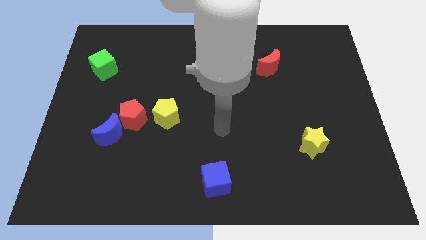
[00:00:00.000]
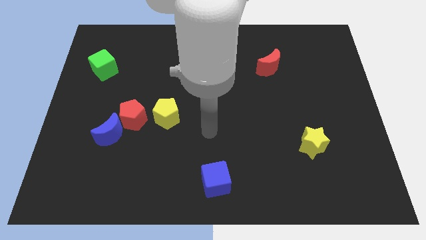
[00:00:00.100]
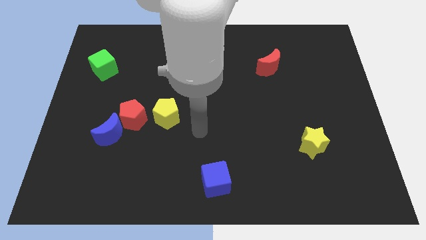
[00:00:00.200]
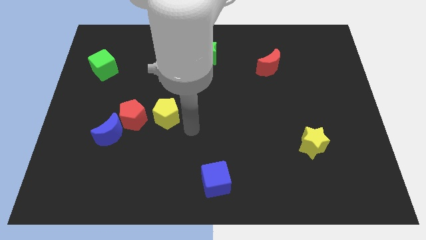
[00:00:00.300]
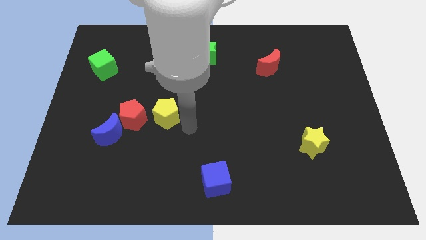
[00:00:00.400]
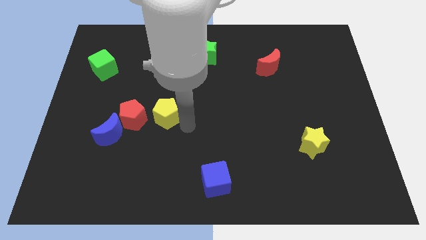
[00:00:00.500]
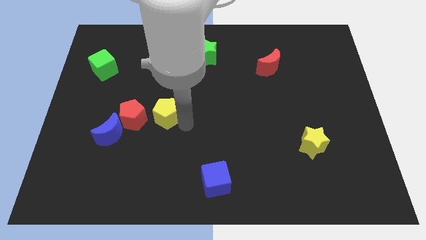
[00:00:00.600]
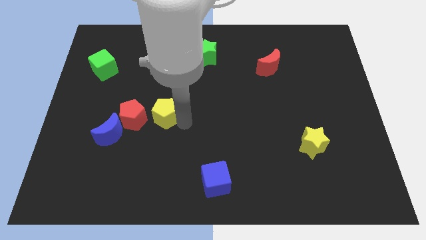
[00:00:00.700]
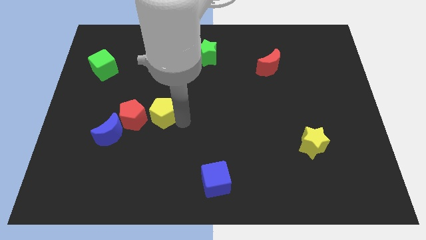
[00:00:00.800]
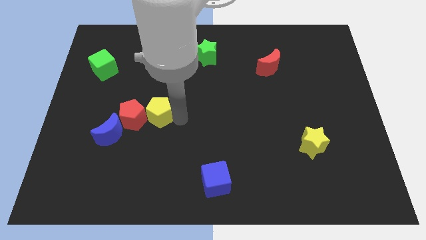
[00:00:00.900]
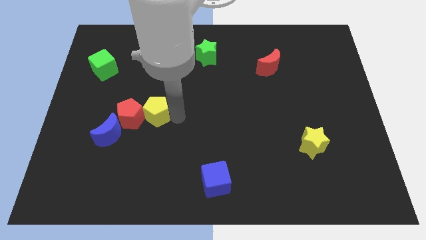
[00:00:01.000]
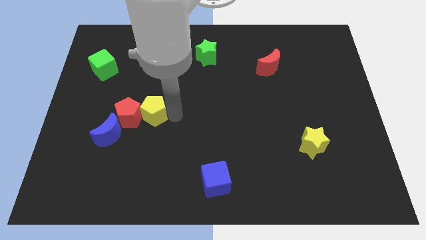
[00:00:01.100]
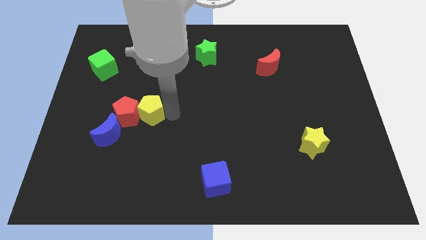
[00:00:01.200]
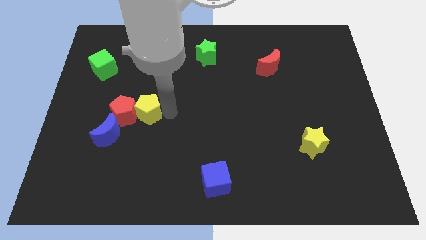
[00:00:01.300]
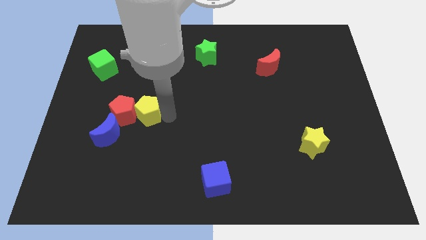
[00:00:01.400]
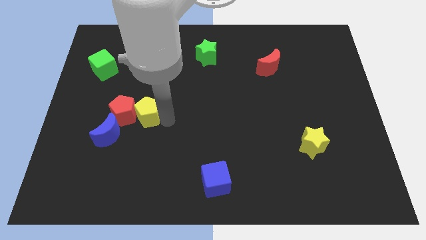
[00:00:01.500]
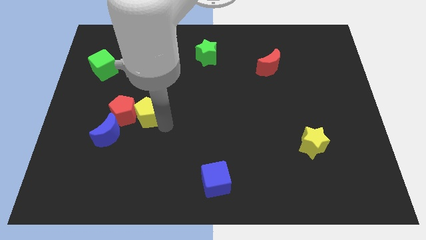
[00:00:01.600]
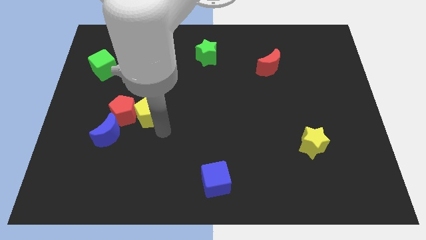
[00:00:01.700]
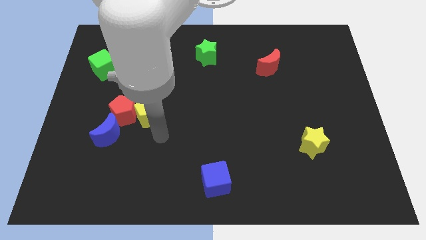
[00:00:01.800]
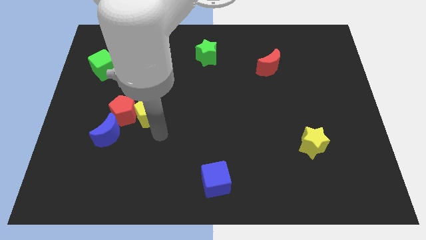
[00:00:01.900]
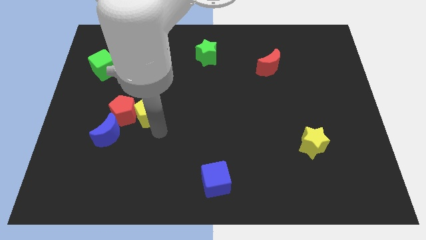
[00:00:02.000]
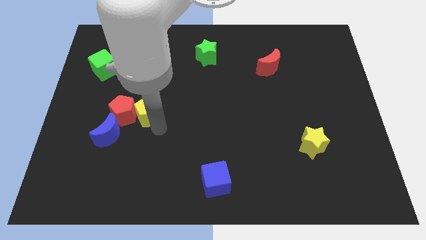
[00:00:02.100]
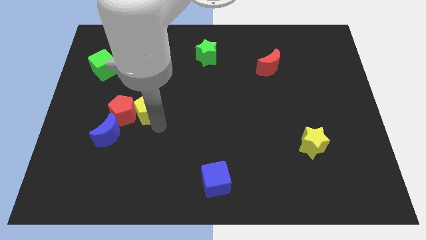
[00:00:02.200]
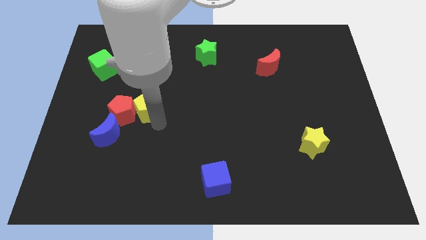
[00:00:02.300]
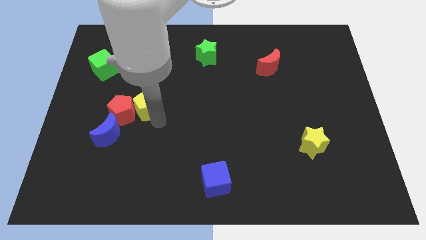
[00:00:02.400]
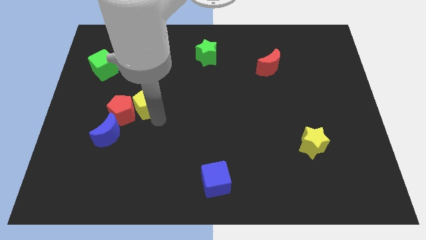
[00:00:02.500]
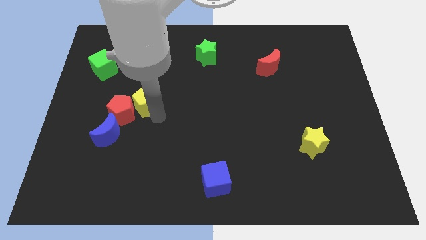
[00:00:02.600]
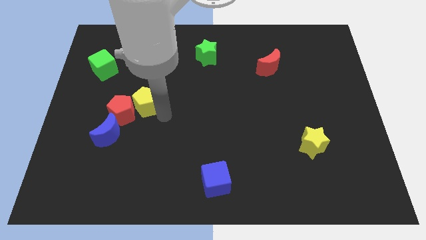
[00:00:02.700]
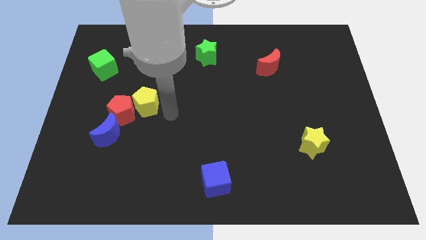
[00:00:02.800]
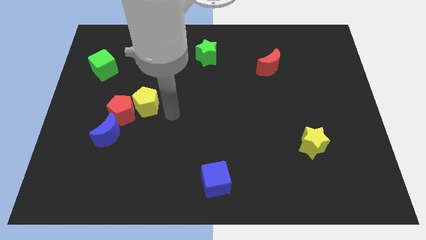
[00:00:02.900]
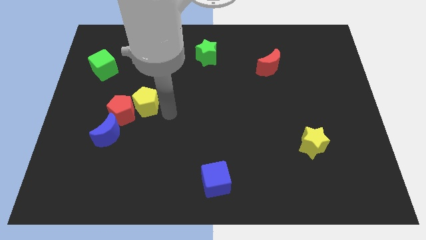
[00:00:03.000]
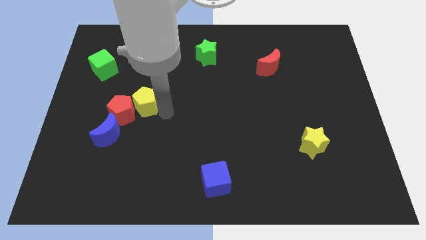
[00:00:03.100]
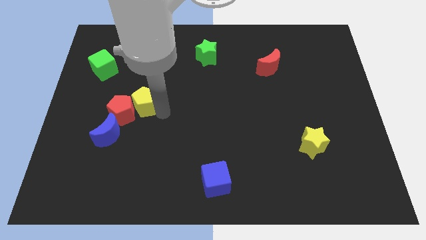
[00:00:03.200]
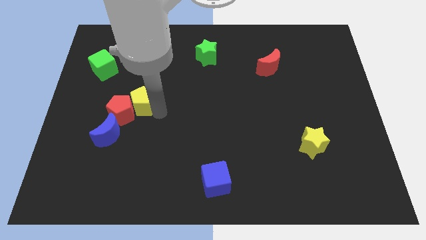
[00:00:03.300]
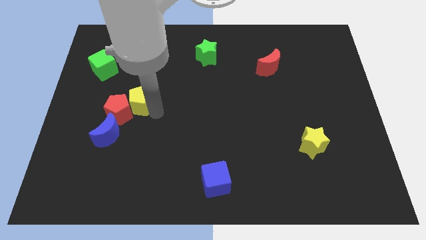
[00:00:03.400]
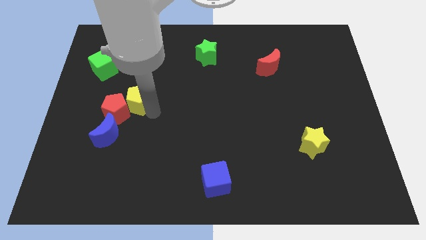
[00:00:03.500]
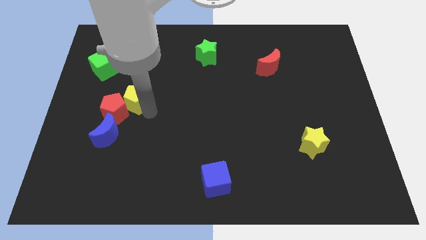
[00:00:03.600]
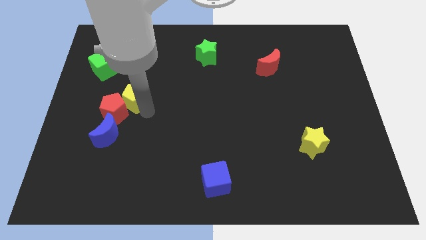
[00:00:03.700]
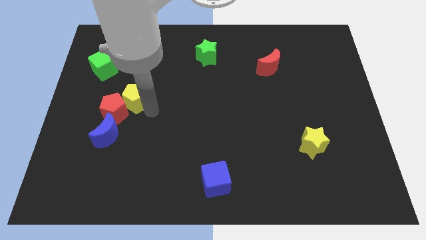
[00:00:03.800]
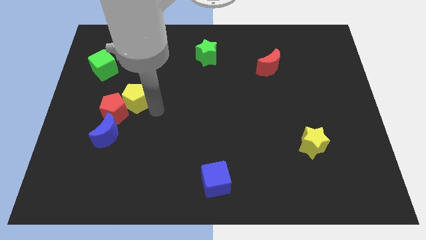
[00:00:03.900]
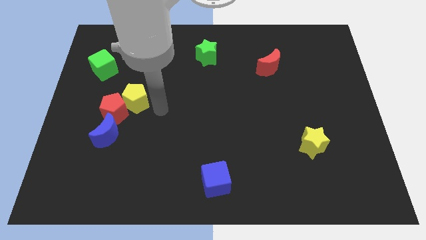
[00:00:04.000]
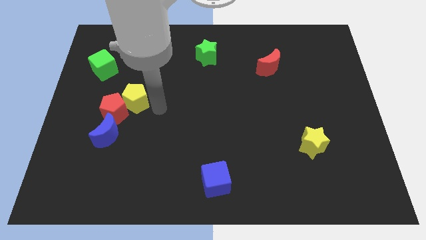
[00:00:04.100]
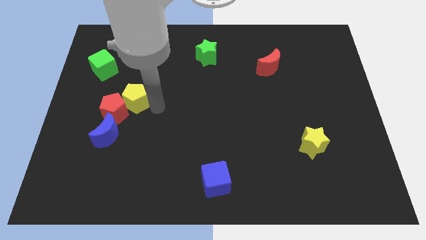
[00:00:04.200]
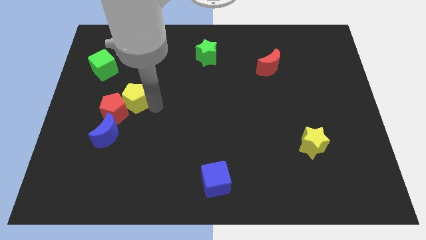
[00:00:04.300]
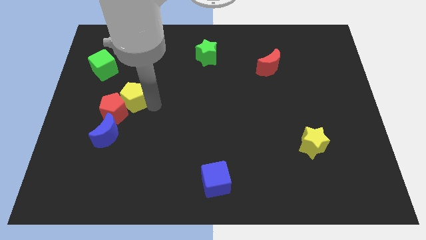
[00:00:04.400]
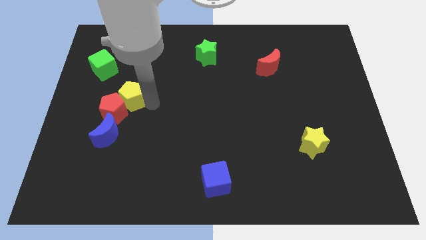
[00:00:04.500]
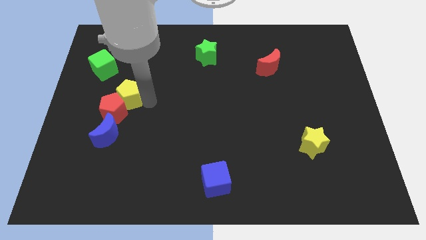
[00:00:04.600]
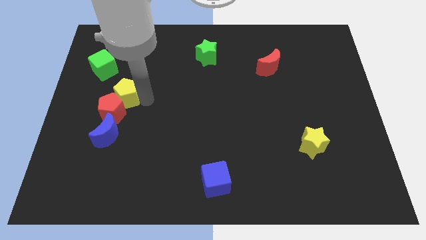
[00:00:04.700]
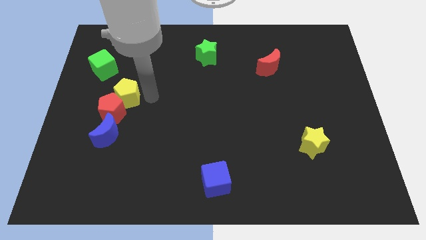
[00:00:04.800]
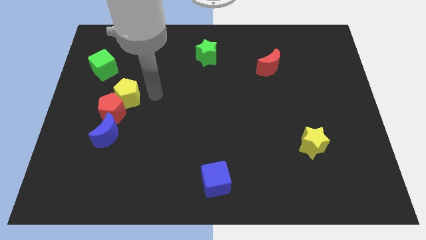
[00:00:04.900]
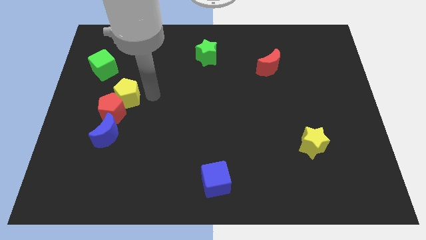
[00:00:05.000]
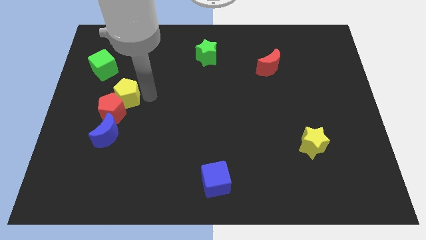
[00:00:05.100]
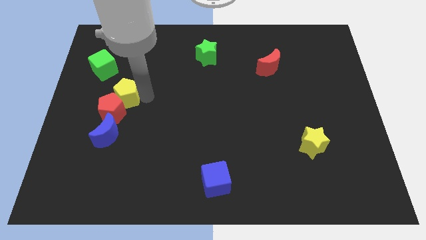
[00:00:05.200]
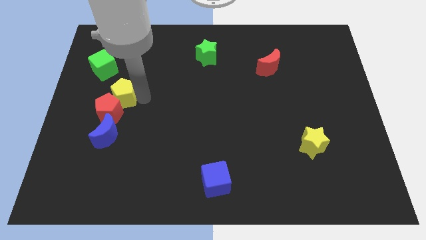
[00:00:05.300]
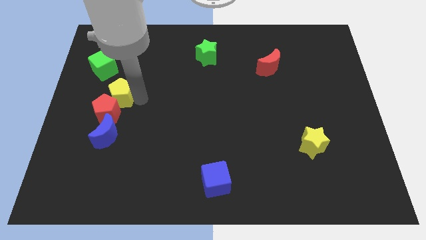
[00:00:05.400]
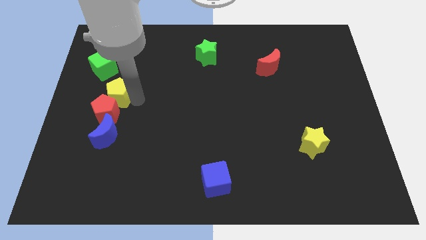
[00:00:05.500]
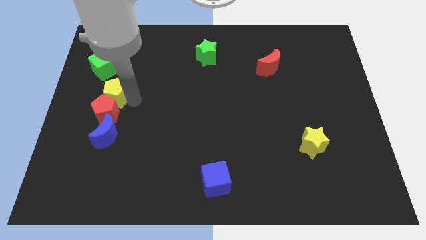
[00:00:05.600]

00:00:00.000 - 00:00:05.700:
push the yellow pentagon below the green cube

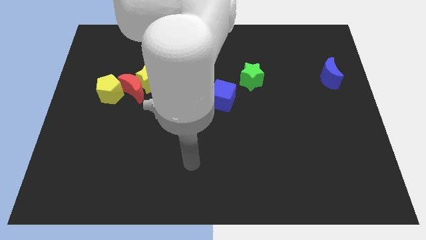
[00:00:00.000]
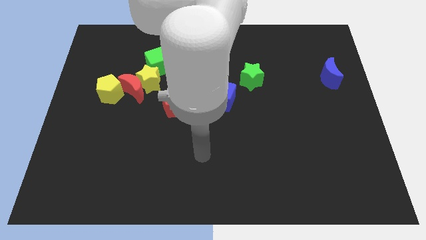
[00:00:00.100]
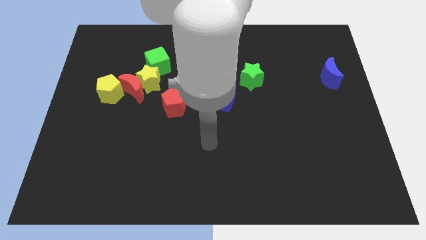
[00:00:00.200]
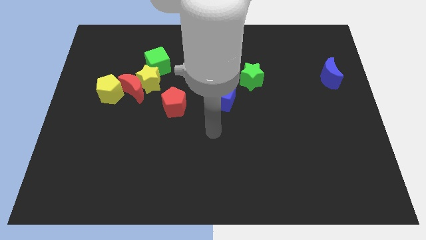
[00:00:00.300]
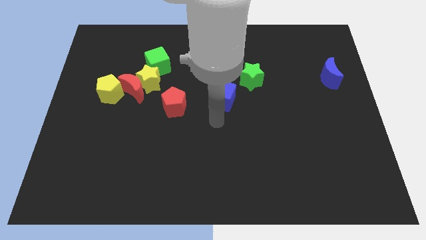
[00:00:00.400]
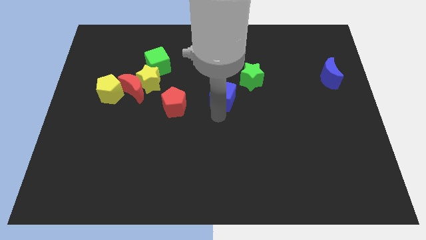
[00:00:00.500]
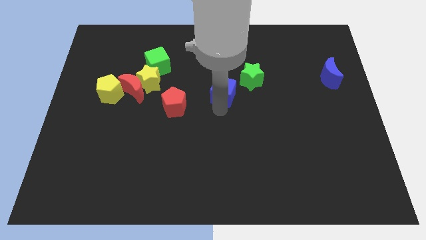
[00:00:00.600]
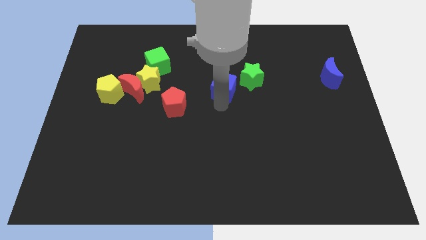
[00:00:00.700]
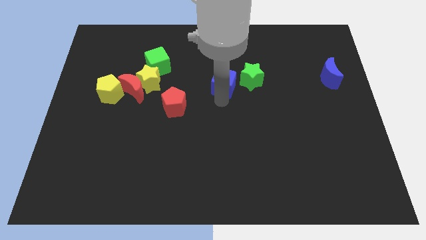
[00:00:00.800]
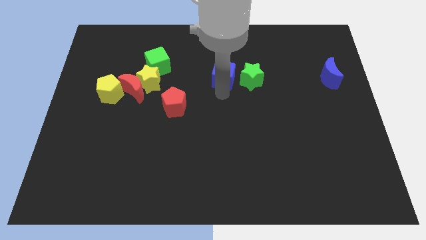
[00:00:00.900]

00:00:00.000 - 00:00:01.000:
slide the blue cube diagonally up and to the left of the green star
